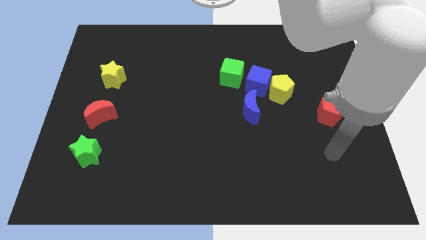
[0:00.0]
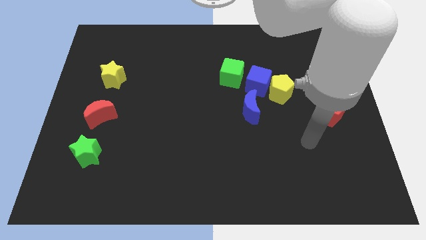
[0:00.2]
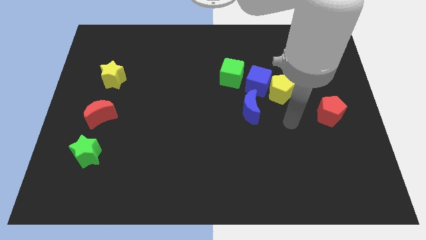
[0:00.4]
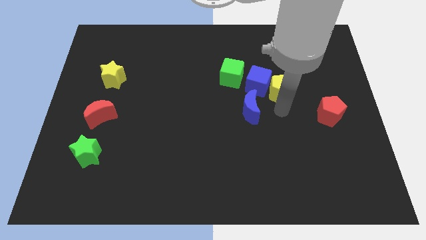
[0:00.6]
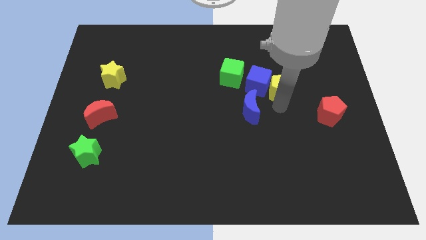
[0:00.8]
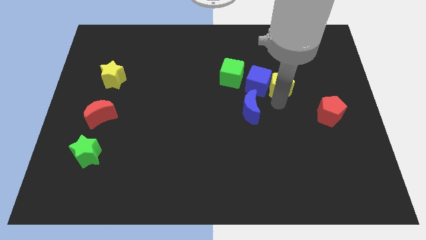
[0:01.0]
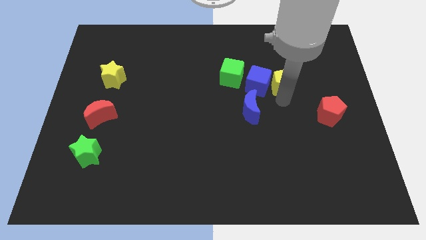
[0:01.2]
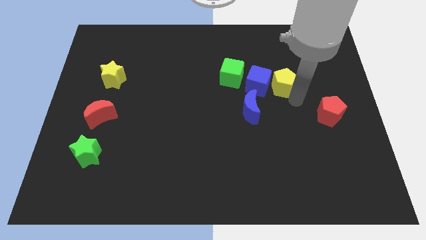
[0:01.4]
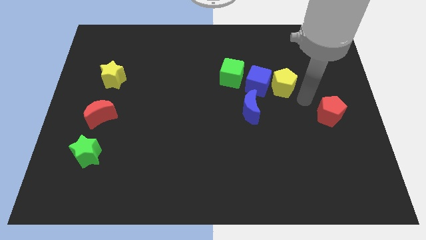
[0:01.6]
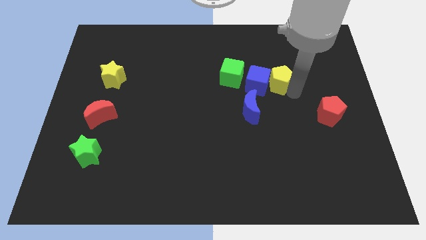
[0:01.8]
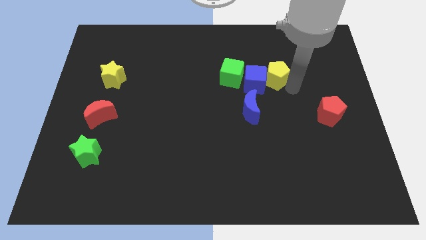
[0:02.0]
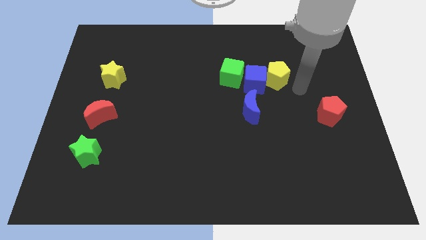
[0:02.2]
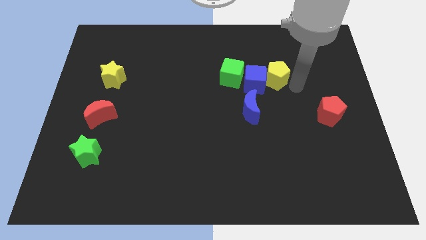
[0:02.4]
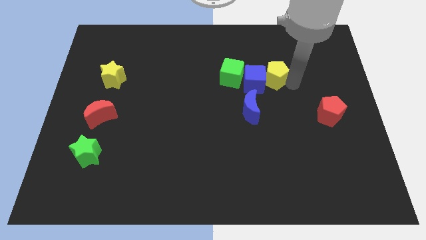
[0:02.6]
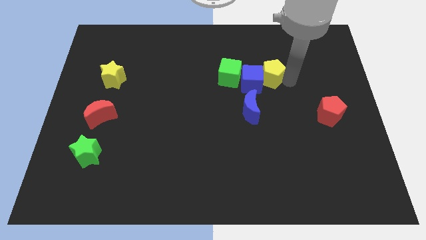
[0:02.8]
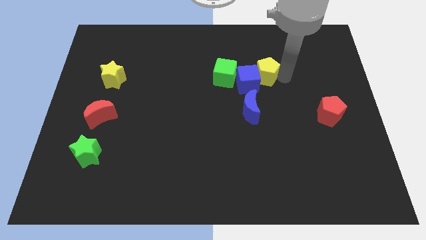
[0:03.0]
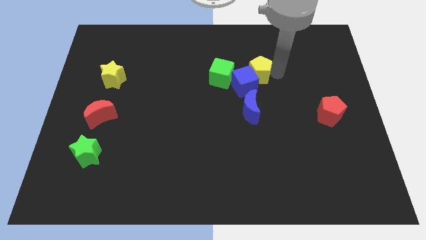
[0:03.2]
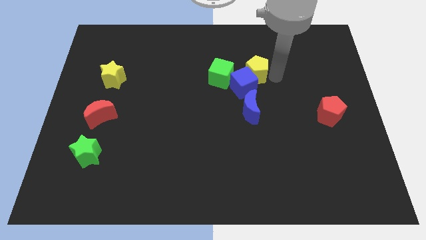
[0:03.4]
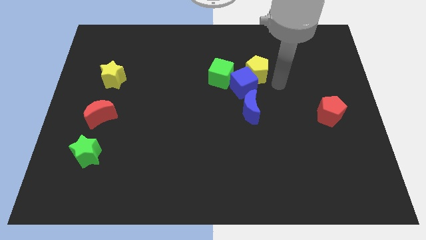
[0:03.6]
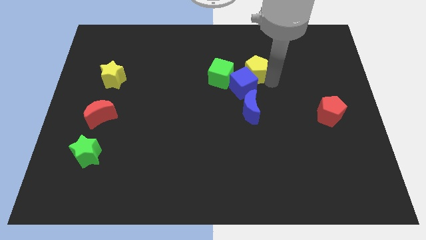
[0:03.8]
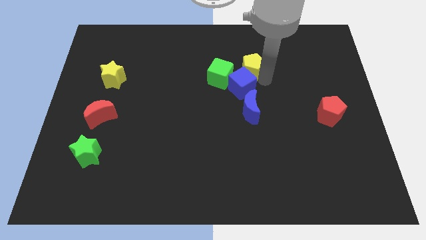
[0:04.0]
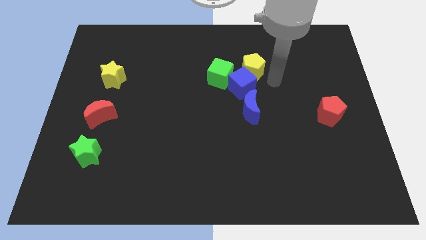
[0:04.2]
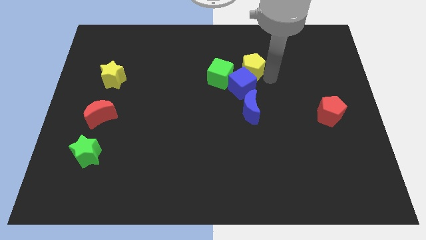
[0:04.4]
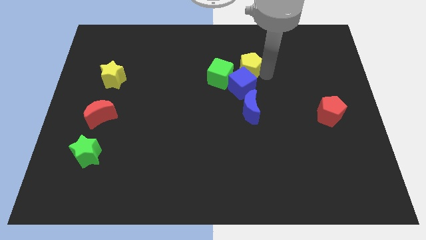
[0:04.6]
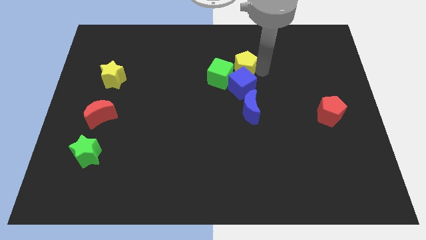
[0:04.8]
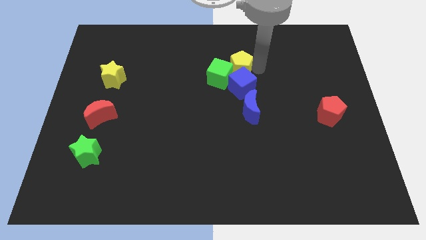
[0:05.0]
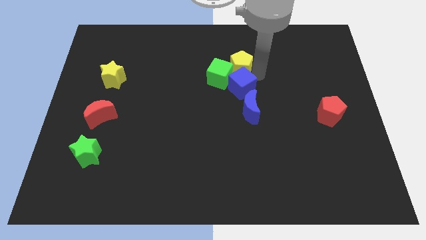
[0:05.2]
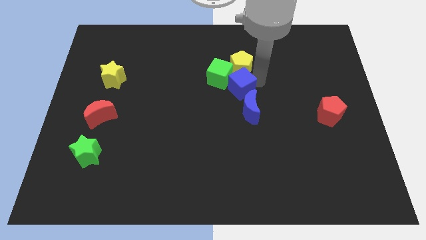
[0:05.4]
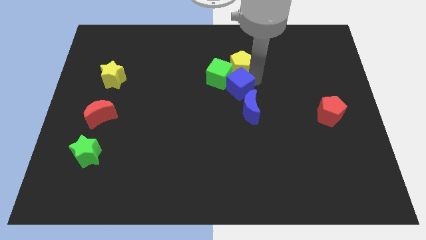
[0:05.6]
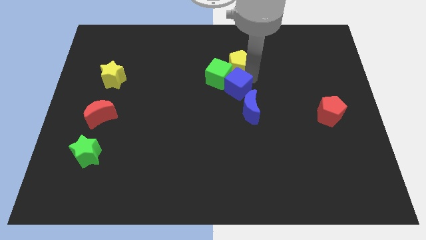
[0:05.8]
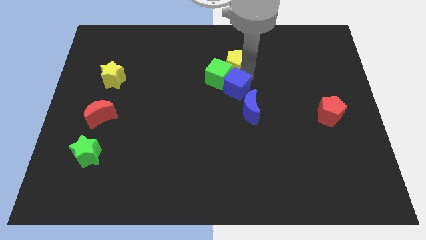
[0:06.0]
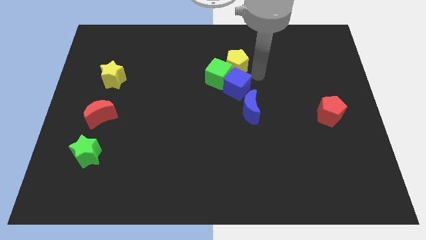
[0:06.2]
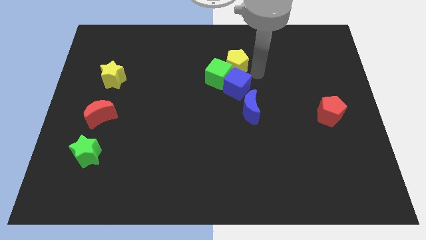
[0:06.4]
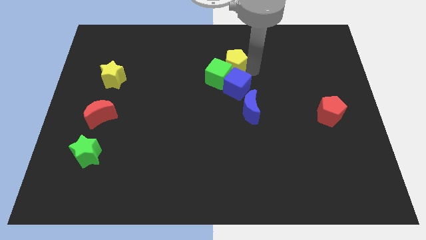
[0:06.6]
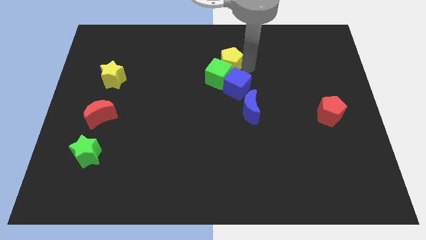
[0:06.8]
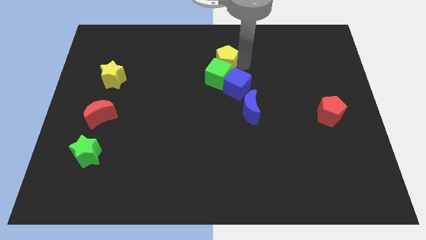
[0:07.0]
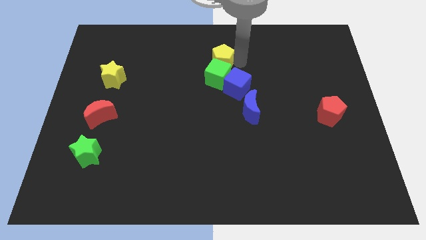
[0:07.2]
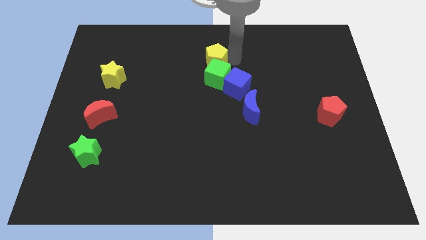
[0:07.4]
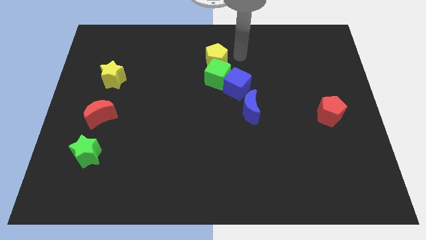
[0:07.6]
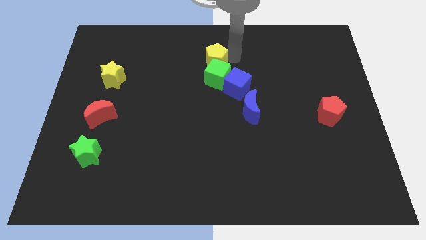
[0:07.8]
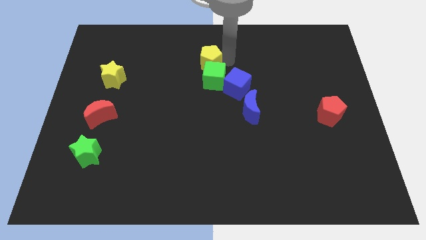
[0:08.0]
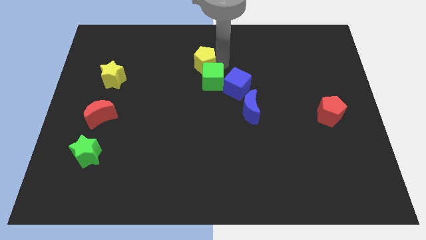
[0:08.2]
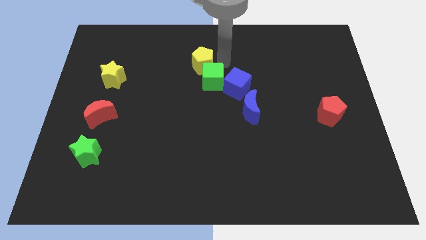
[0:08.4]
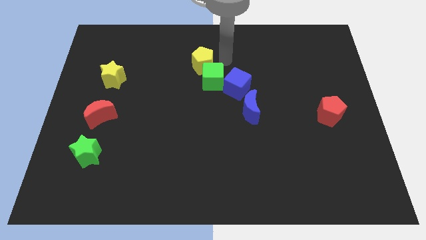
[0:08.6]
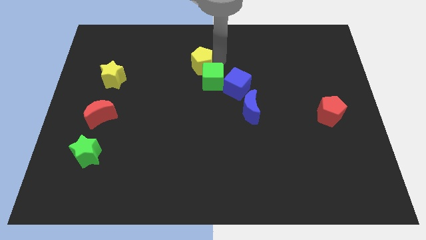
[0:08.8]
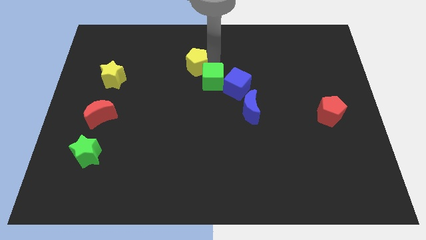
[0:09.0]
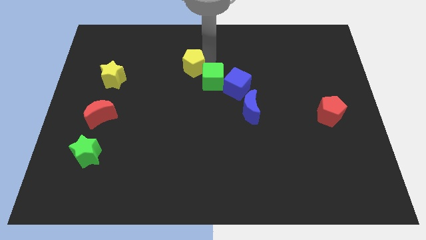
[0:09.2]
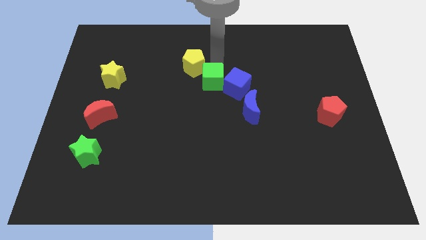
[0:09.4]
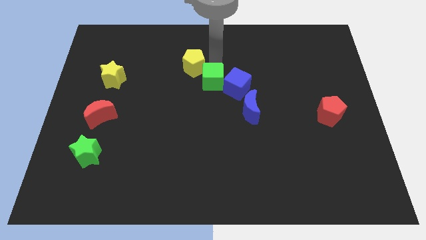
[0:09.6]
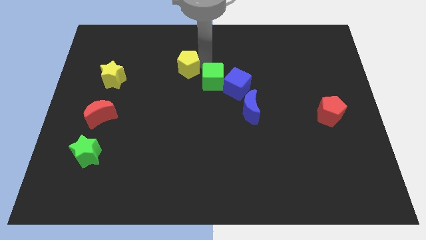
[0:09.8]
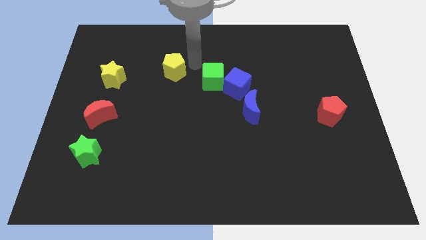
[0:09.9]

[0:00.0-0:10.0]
slide the yellow pentagon to the left

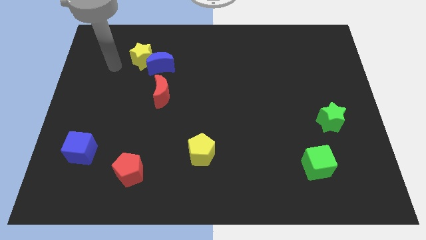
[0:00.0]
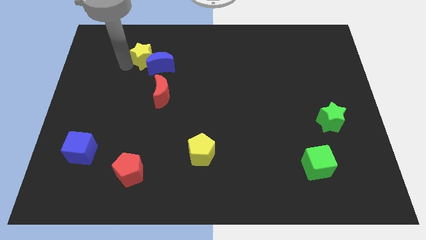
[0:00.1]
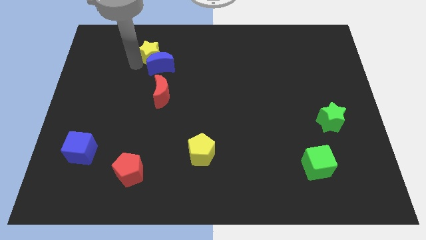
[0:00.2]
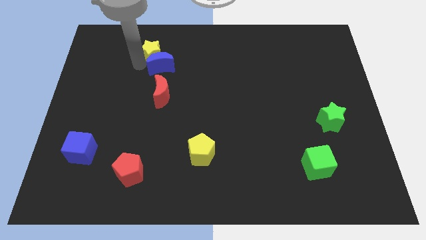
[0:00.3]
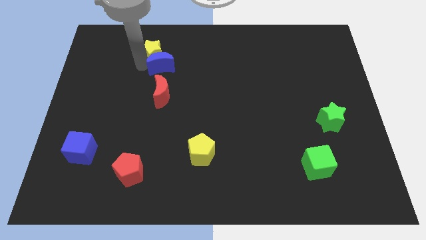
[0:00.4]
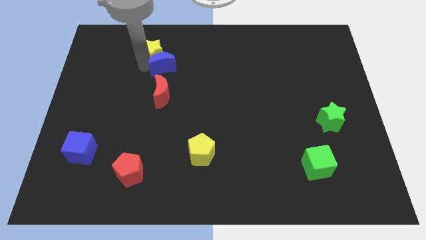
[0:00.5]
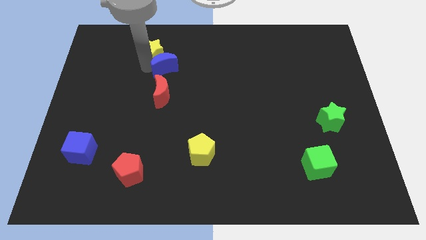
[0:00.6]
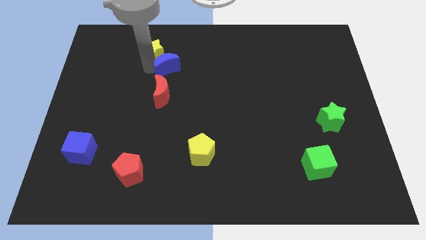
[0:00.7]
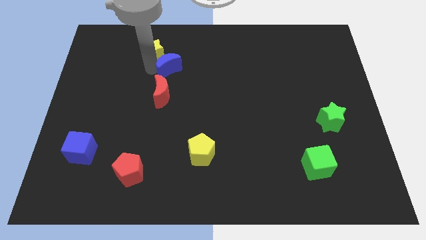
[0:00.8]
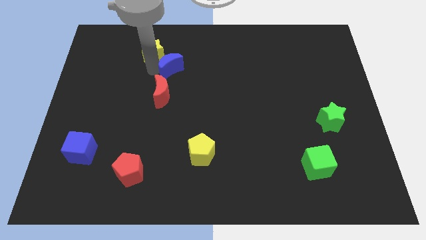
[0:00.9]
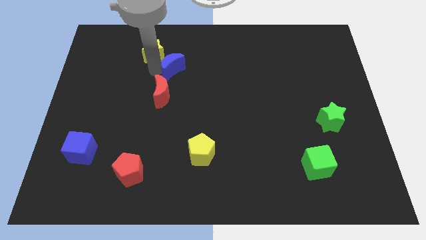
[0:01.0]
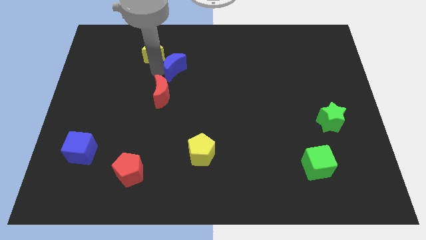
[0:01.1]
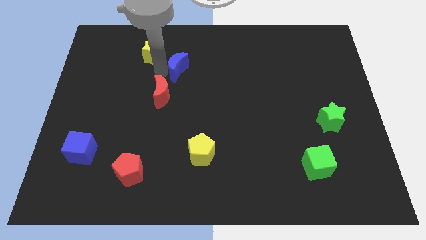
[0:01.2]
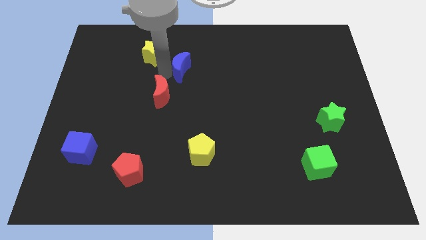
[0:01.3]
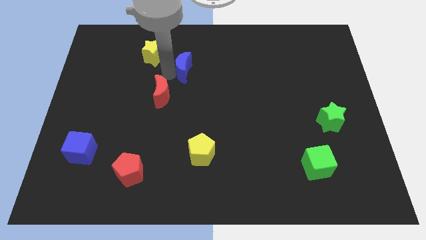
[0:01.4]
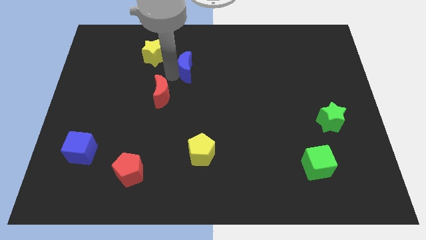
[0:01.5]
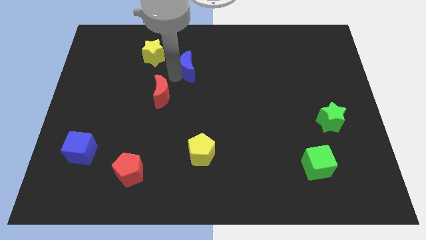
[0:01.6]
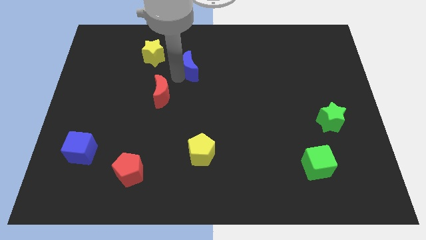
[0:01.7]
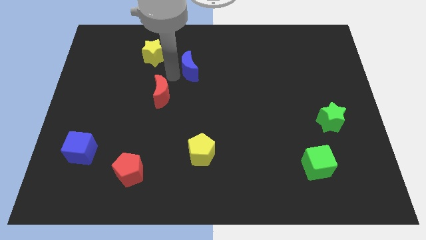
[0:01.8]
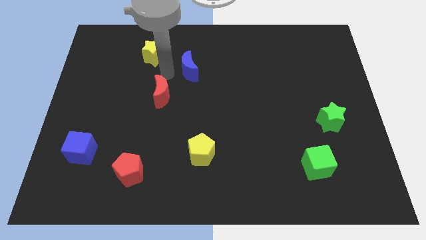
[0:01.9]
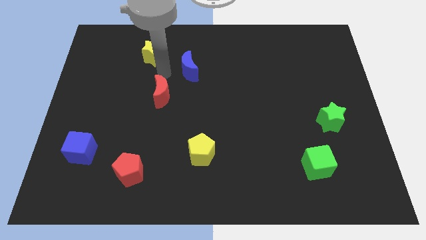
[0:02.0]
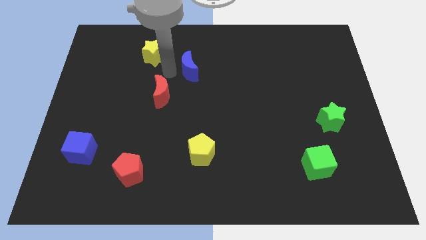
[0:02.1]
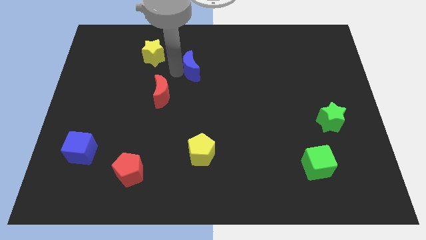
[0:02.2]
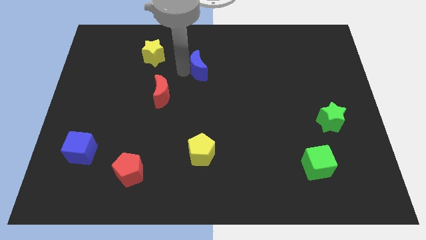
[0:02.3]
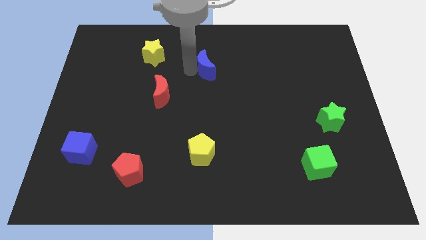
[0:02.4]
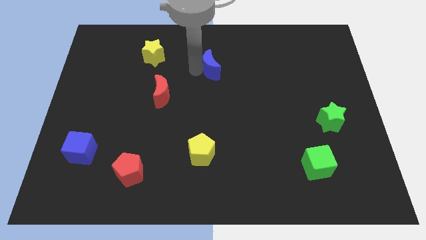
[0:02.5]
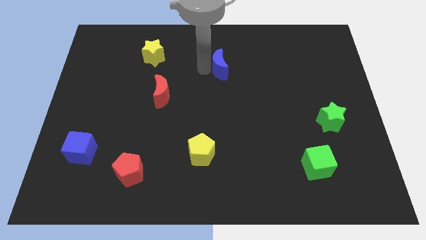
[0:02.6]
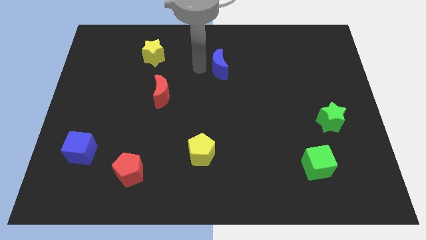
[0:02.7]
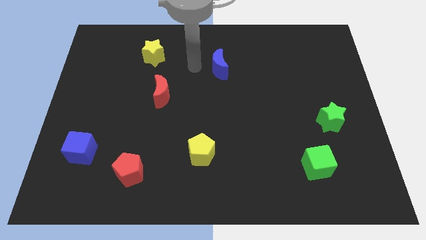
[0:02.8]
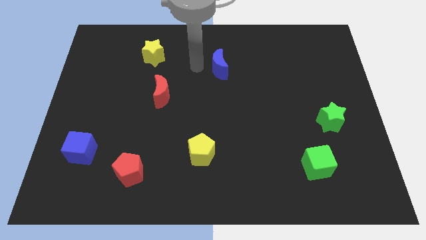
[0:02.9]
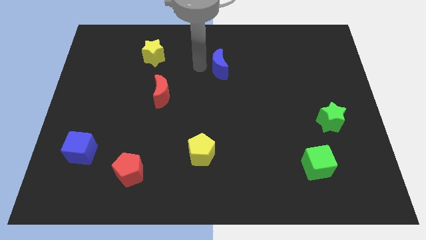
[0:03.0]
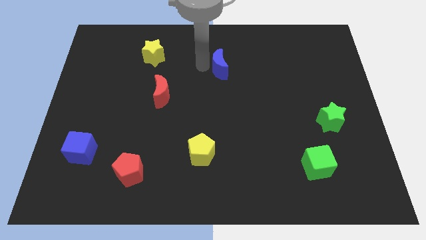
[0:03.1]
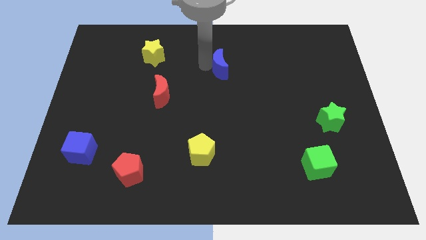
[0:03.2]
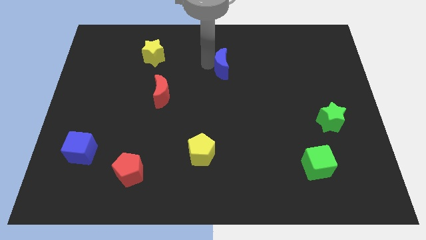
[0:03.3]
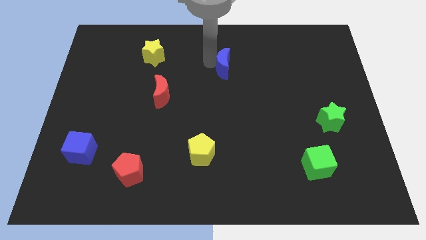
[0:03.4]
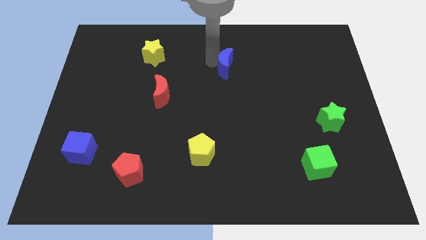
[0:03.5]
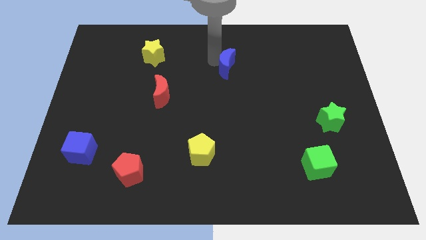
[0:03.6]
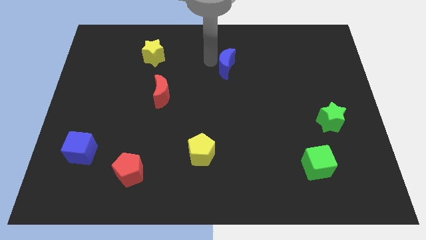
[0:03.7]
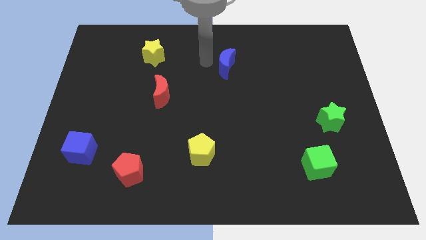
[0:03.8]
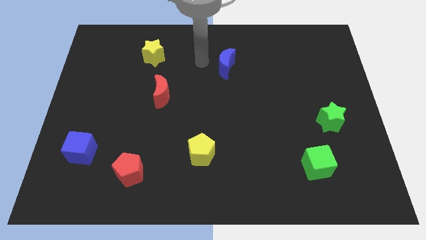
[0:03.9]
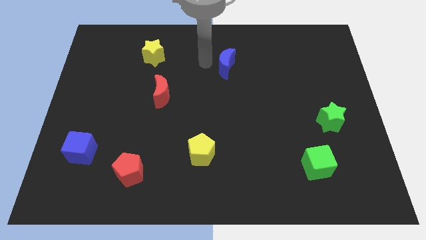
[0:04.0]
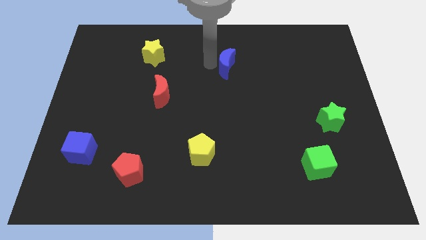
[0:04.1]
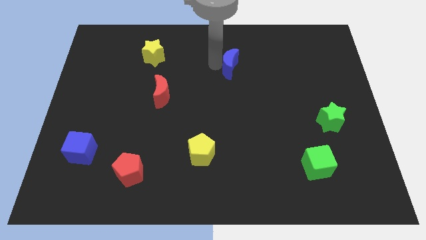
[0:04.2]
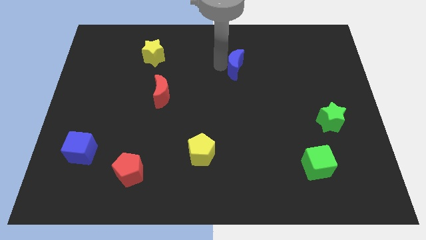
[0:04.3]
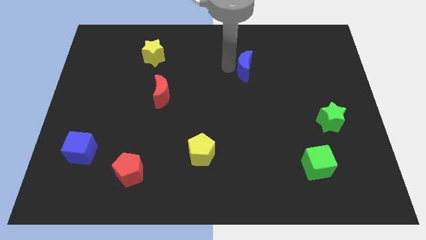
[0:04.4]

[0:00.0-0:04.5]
move the blue moon right
